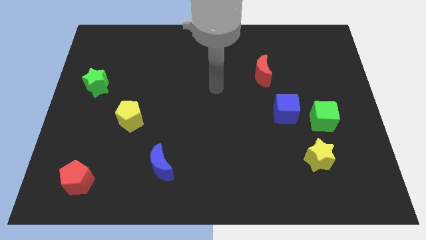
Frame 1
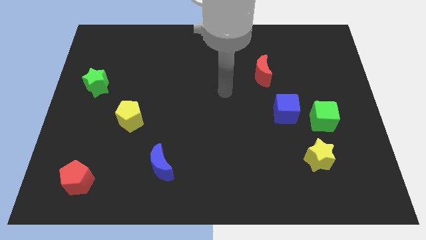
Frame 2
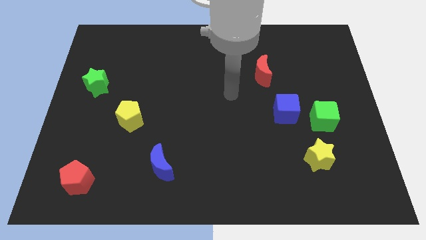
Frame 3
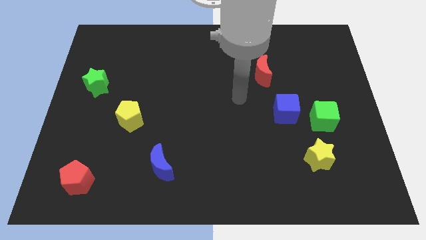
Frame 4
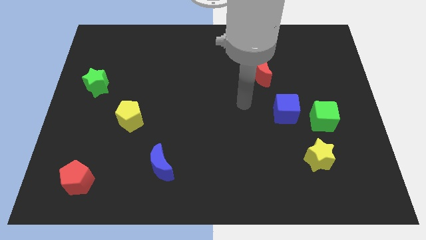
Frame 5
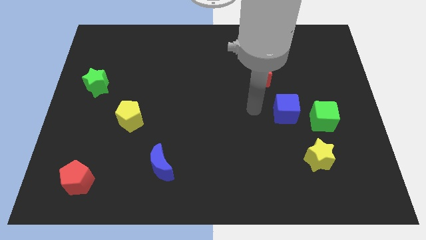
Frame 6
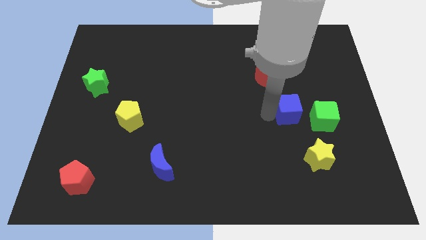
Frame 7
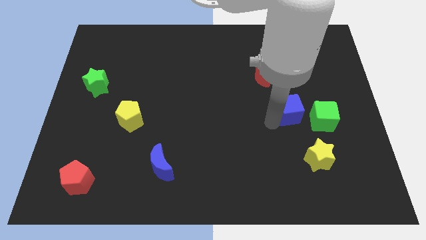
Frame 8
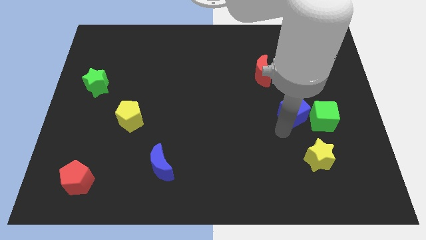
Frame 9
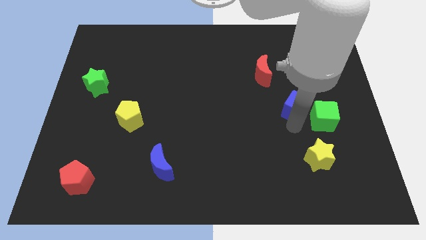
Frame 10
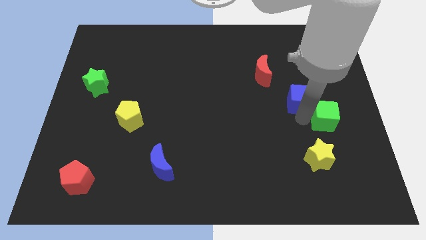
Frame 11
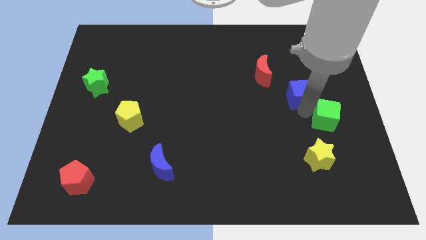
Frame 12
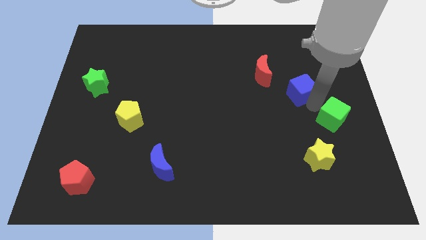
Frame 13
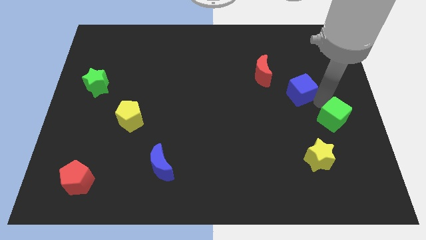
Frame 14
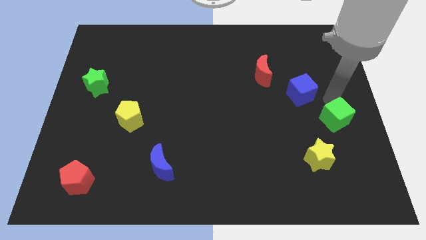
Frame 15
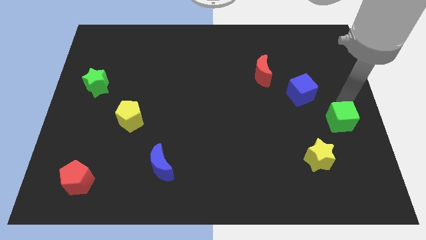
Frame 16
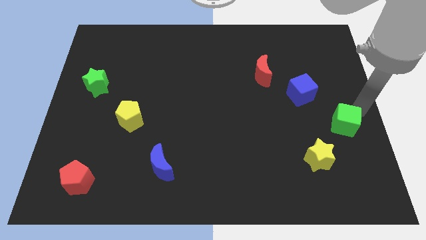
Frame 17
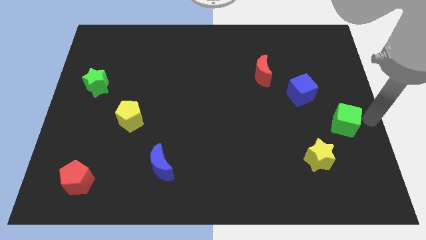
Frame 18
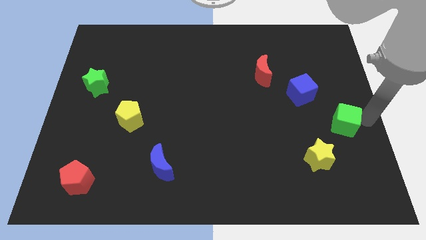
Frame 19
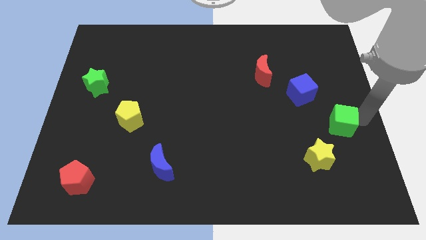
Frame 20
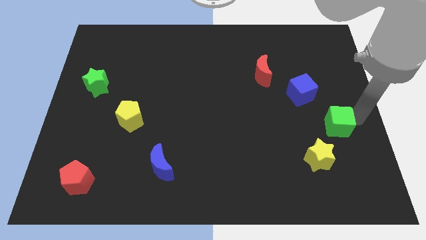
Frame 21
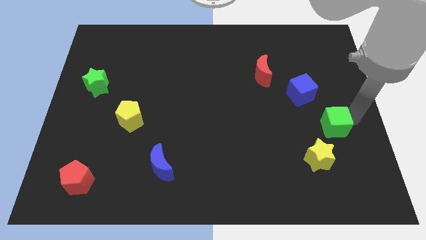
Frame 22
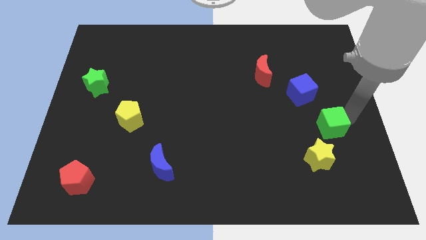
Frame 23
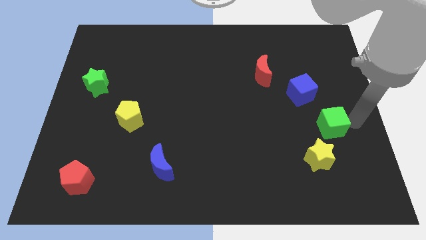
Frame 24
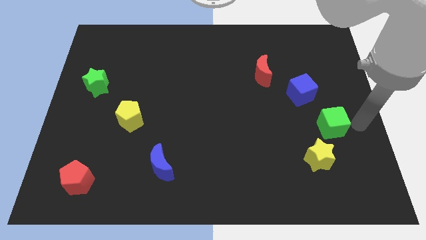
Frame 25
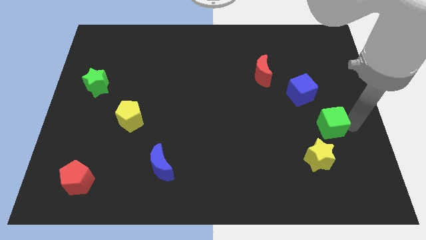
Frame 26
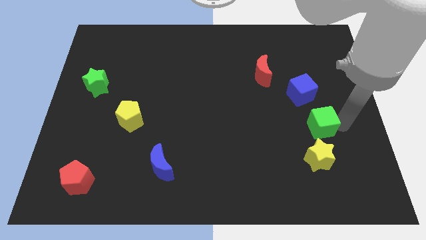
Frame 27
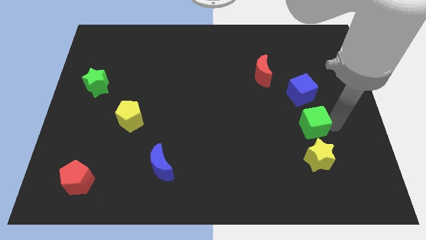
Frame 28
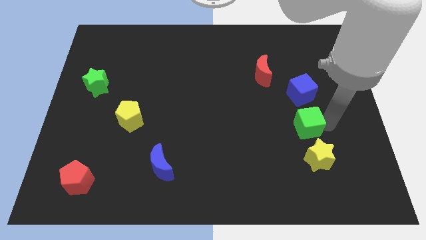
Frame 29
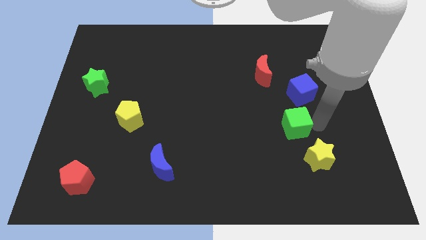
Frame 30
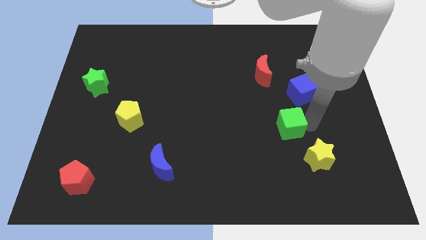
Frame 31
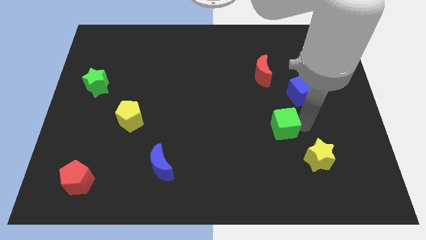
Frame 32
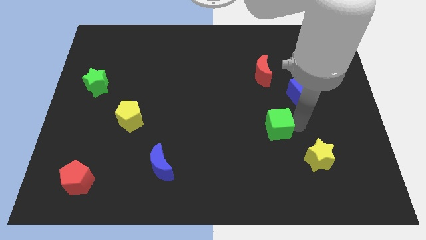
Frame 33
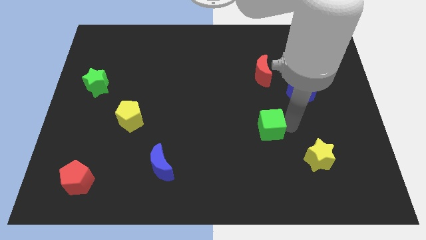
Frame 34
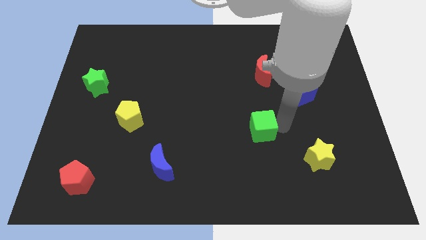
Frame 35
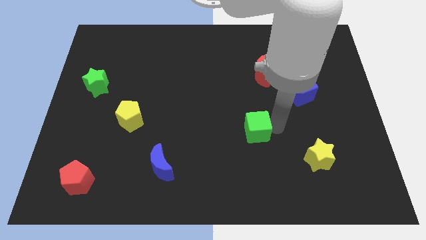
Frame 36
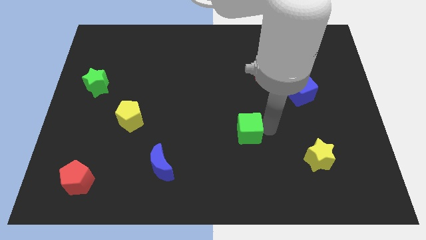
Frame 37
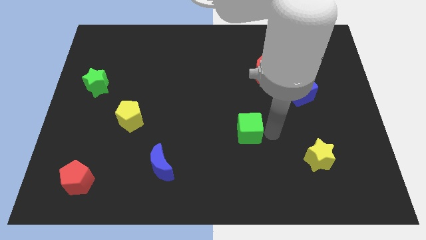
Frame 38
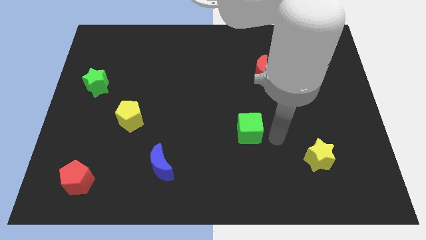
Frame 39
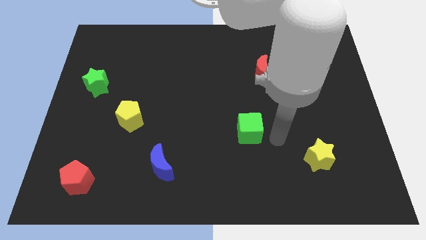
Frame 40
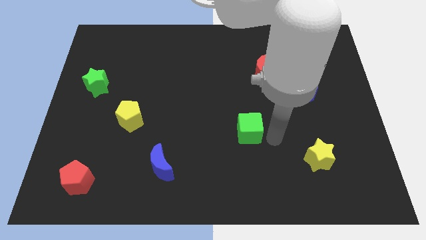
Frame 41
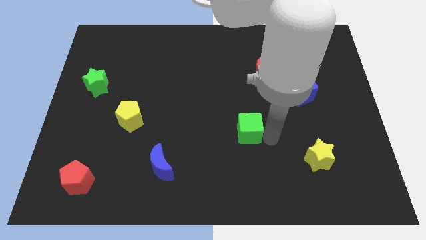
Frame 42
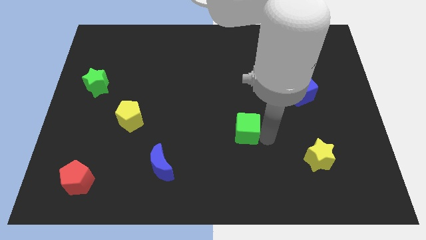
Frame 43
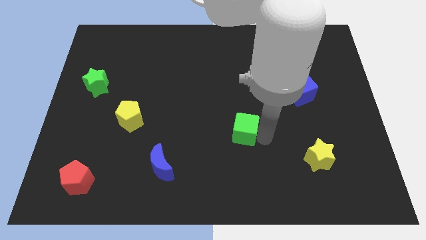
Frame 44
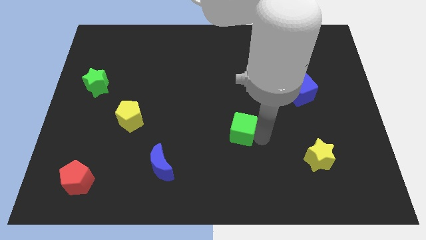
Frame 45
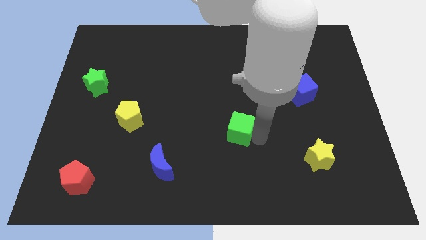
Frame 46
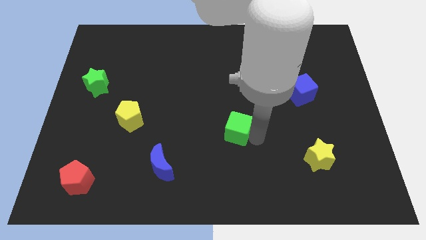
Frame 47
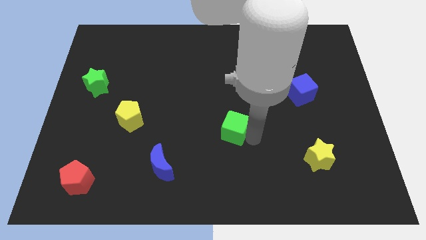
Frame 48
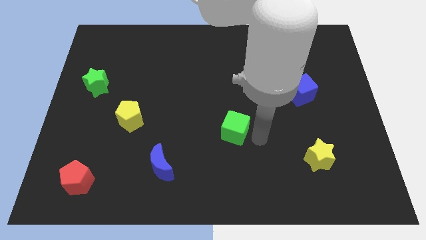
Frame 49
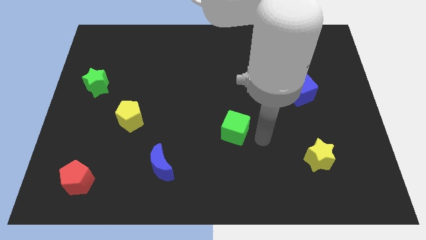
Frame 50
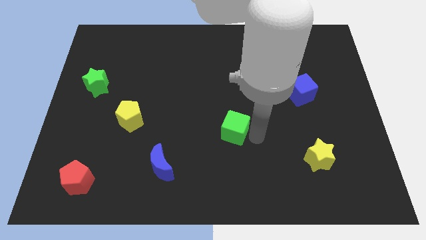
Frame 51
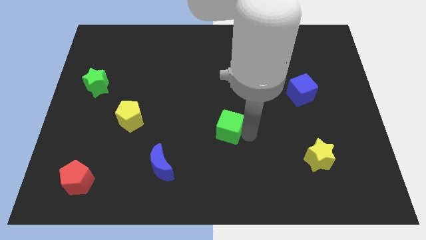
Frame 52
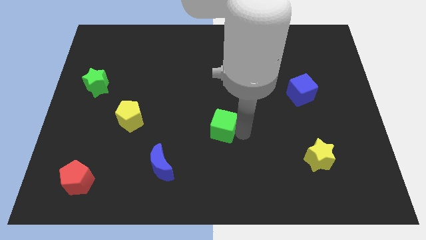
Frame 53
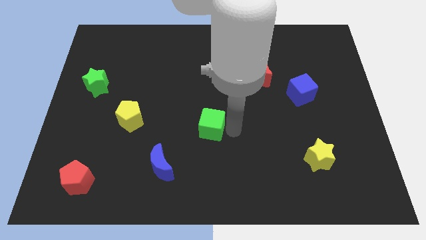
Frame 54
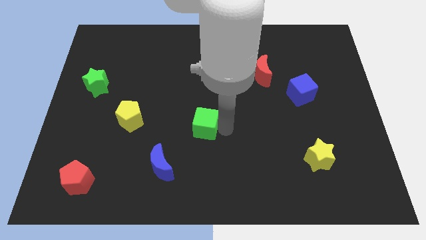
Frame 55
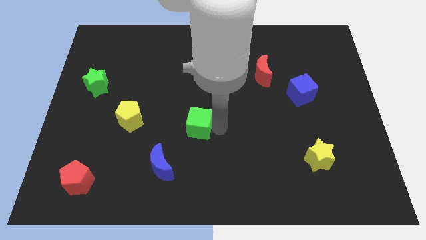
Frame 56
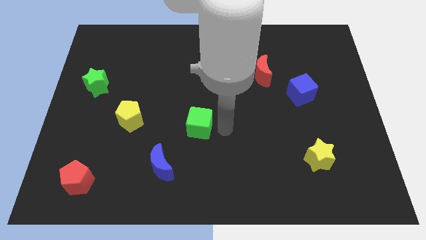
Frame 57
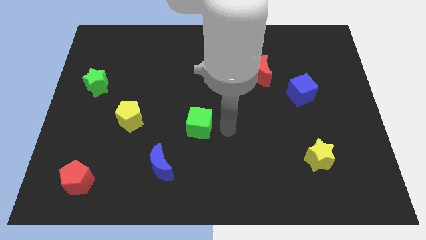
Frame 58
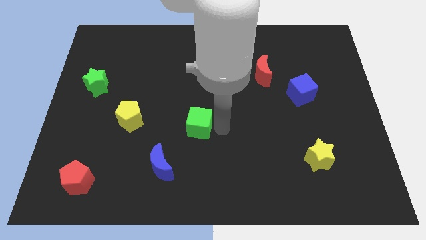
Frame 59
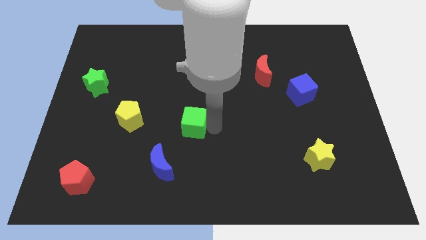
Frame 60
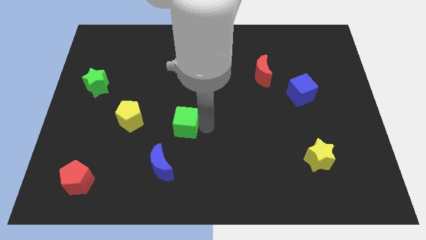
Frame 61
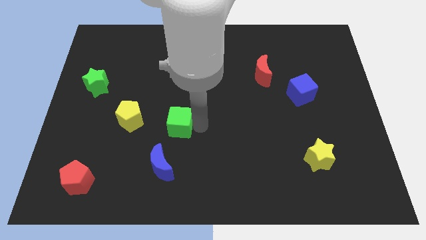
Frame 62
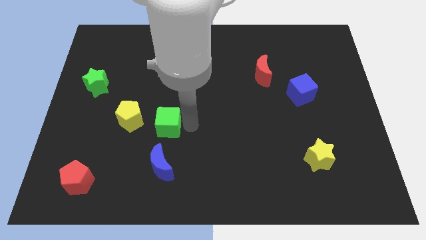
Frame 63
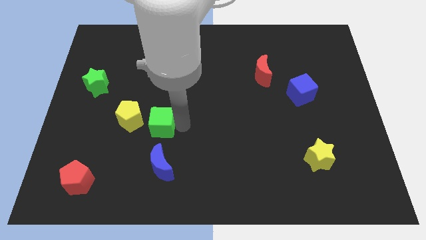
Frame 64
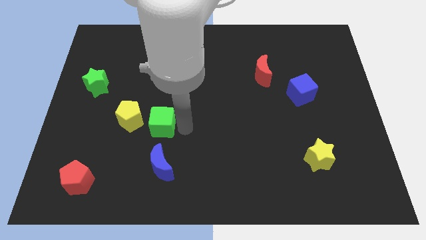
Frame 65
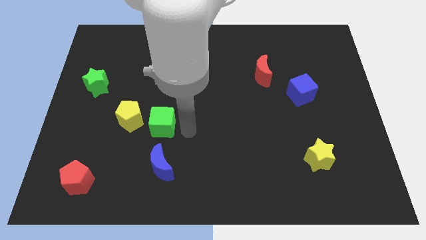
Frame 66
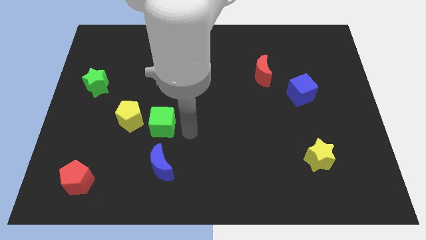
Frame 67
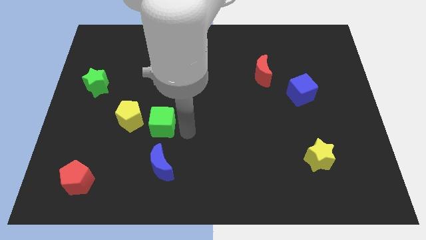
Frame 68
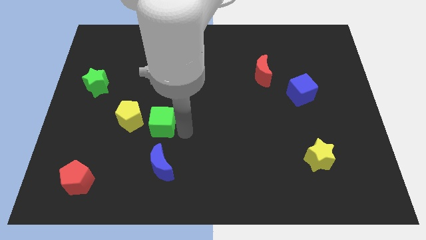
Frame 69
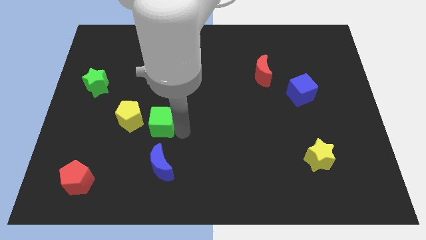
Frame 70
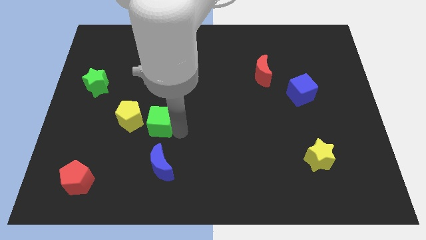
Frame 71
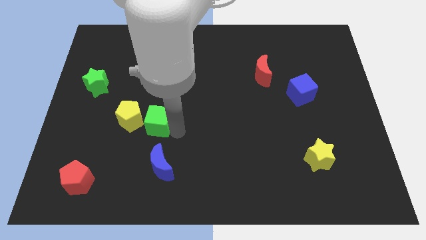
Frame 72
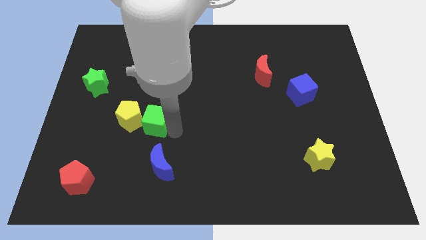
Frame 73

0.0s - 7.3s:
slide the green cube to the yellow pentagon
